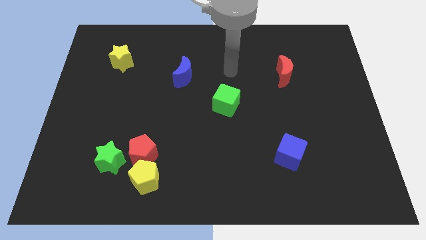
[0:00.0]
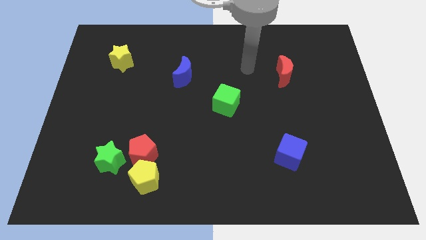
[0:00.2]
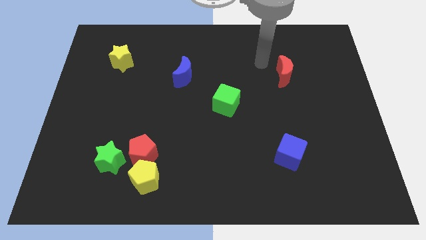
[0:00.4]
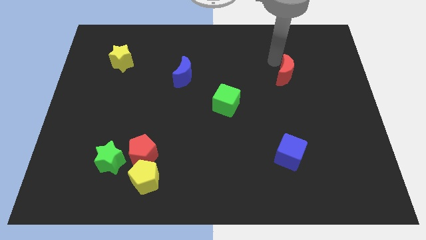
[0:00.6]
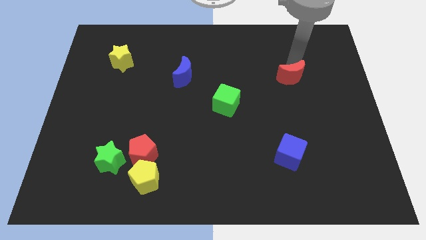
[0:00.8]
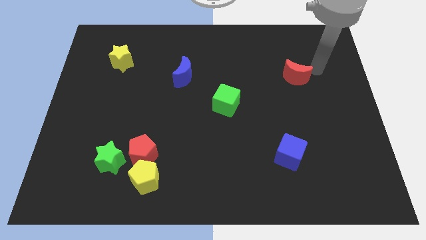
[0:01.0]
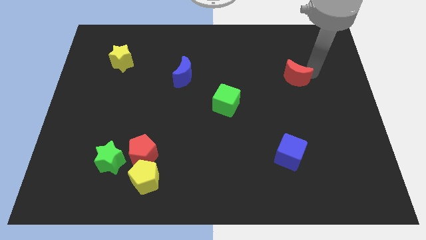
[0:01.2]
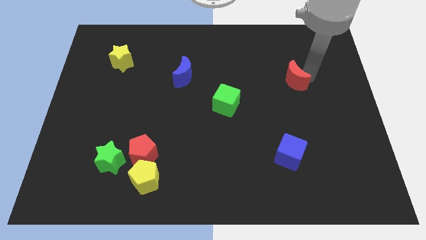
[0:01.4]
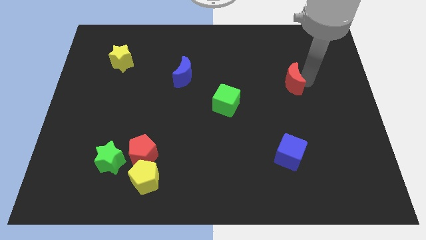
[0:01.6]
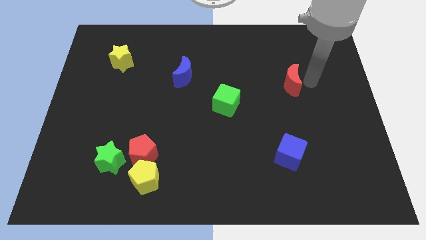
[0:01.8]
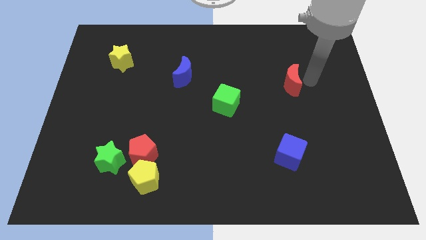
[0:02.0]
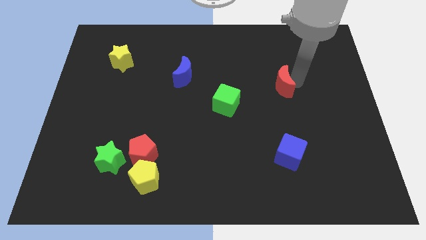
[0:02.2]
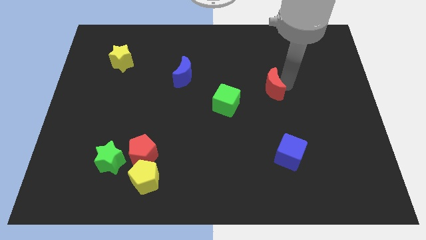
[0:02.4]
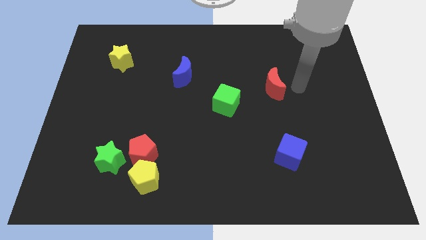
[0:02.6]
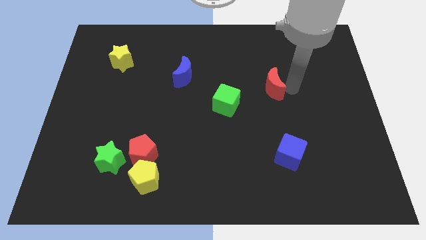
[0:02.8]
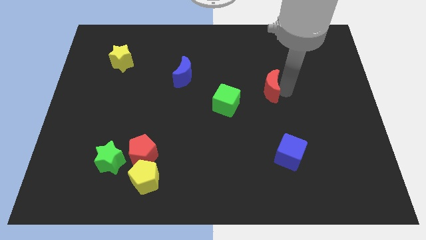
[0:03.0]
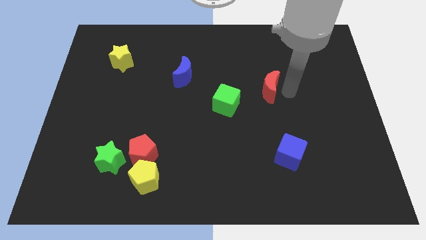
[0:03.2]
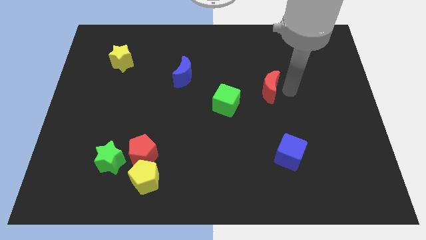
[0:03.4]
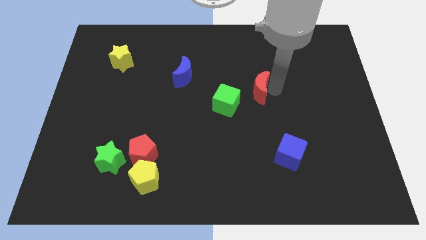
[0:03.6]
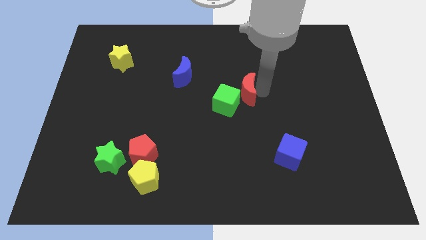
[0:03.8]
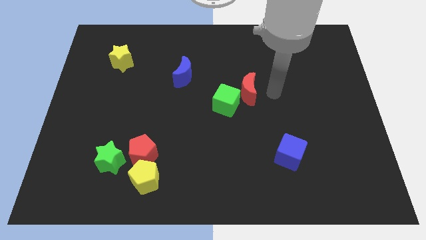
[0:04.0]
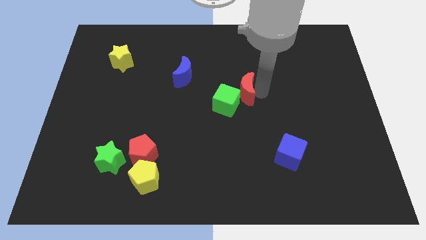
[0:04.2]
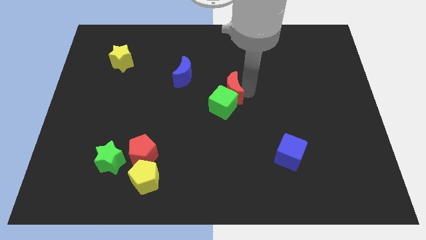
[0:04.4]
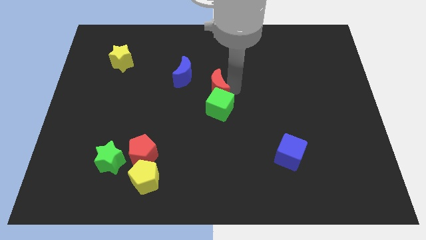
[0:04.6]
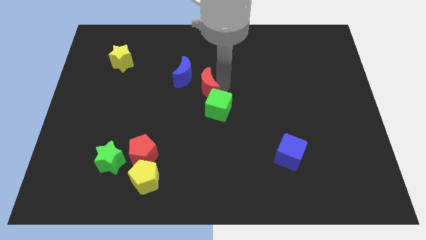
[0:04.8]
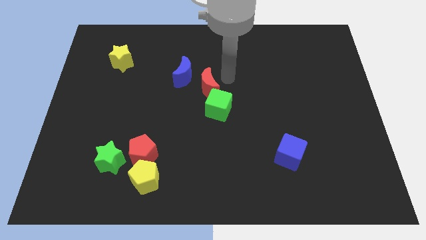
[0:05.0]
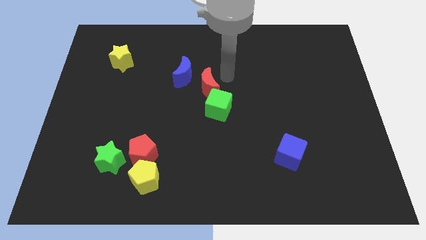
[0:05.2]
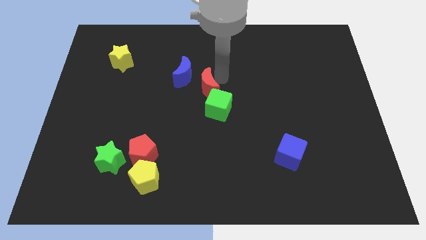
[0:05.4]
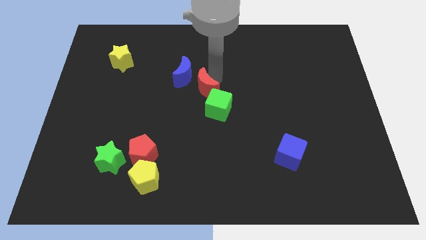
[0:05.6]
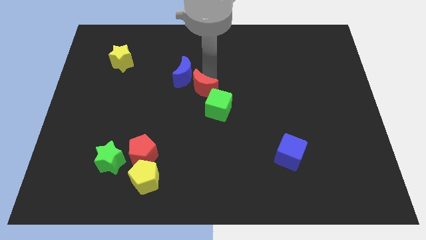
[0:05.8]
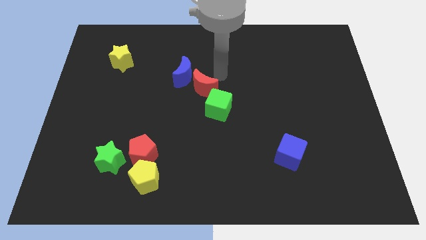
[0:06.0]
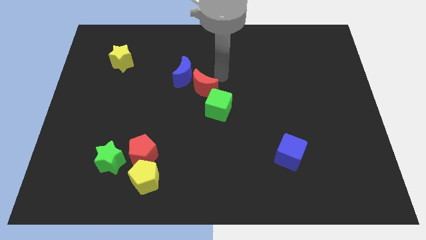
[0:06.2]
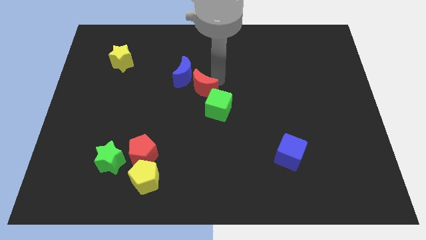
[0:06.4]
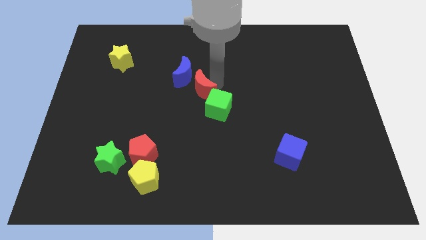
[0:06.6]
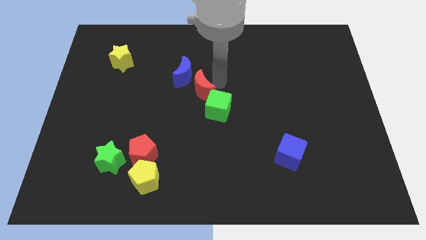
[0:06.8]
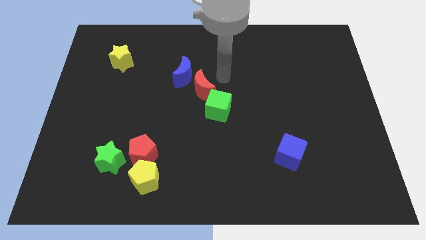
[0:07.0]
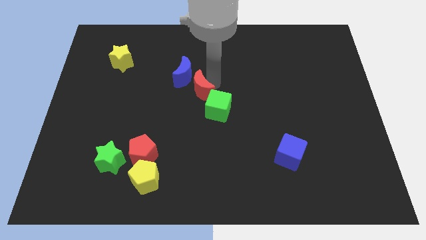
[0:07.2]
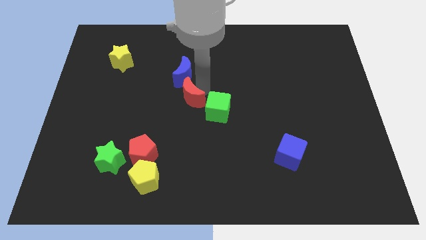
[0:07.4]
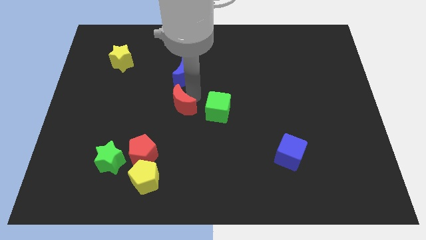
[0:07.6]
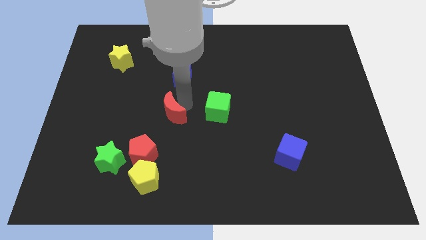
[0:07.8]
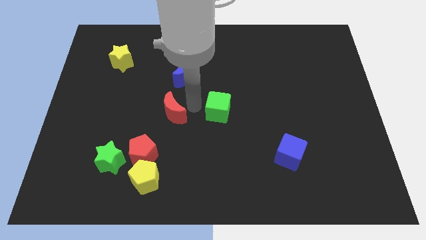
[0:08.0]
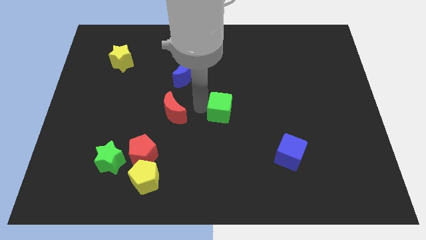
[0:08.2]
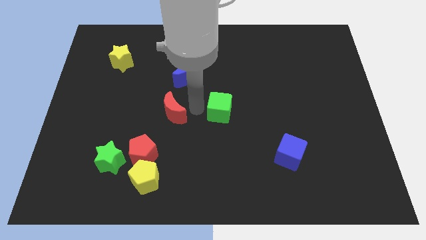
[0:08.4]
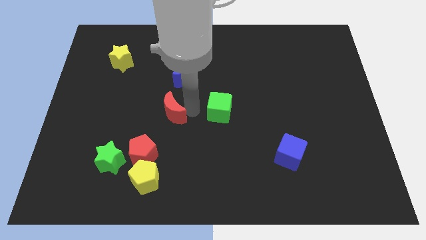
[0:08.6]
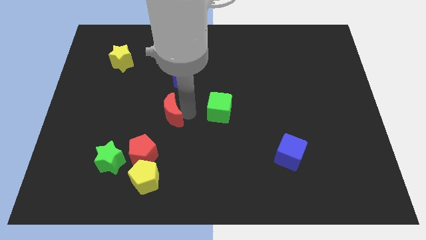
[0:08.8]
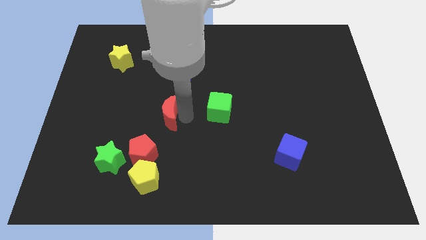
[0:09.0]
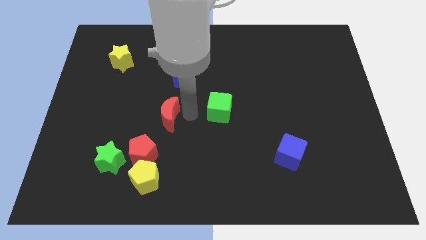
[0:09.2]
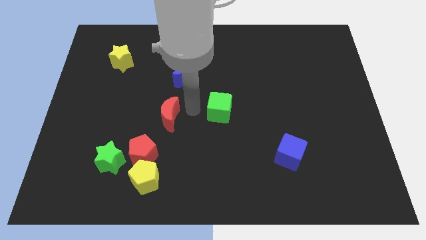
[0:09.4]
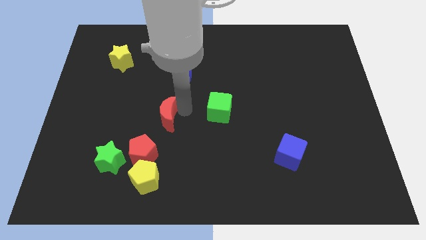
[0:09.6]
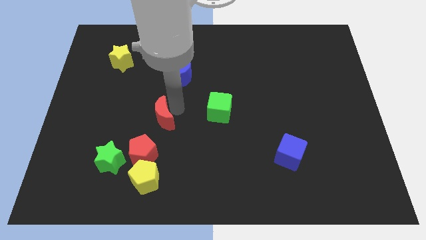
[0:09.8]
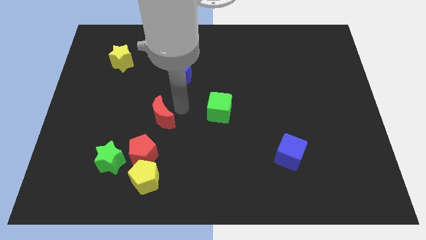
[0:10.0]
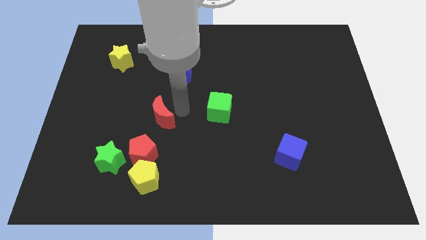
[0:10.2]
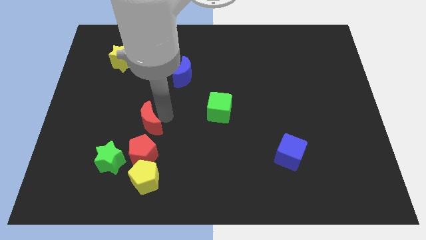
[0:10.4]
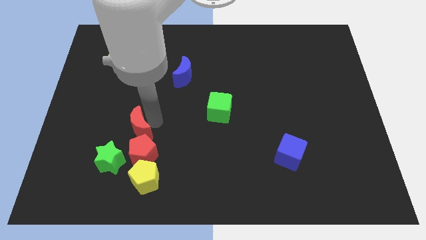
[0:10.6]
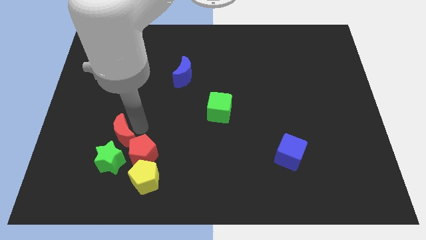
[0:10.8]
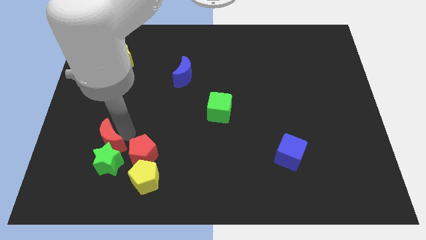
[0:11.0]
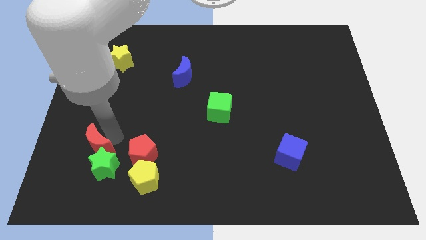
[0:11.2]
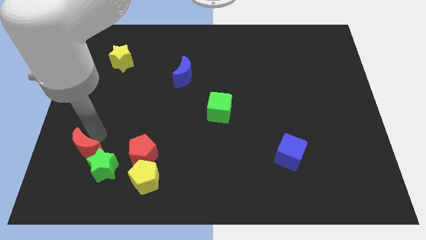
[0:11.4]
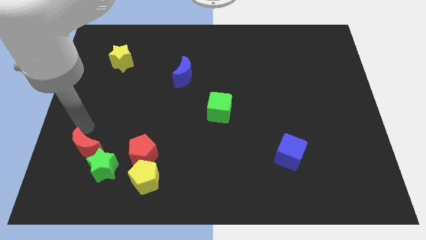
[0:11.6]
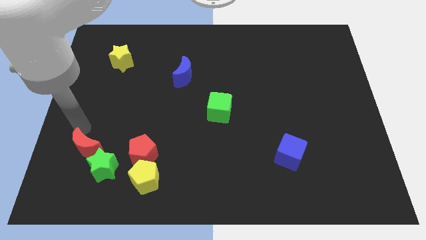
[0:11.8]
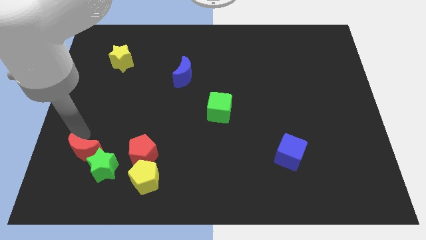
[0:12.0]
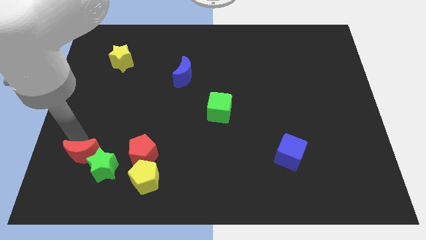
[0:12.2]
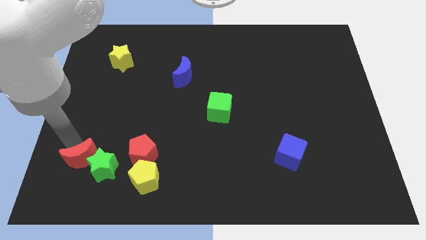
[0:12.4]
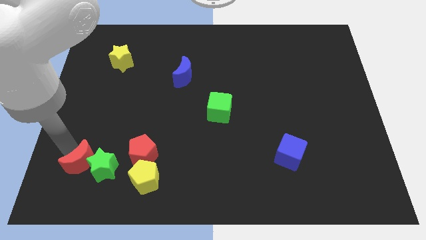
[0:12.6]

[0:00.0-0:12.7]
move the red moon just left of the yellow pentagon
